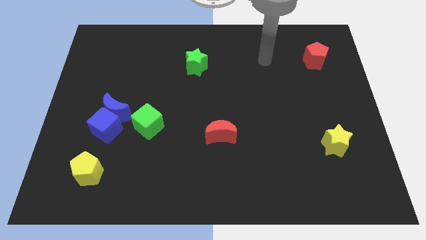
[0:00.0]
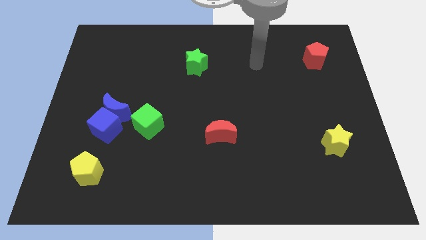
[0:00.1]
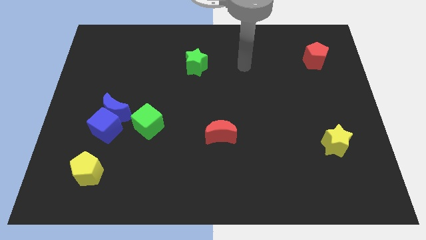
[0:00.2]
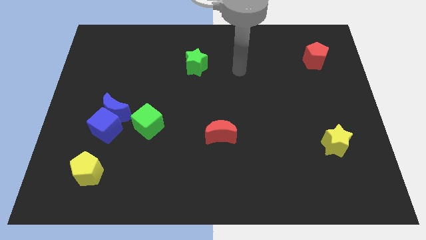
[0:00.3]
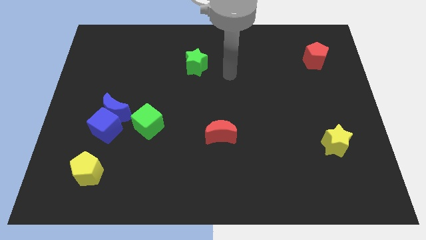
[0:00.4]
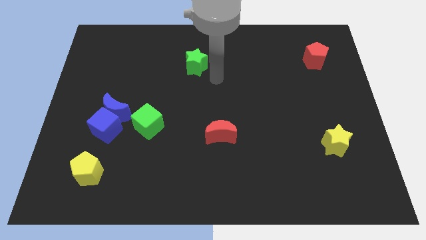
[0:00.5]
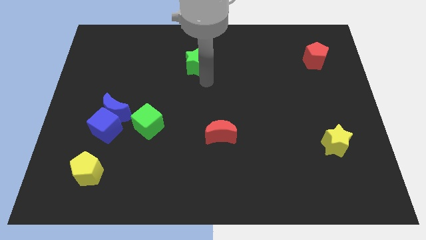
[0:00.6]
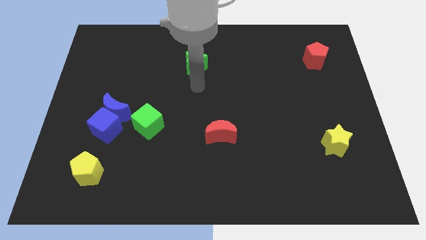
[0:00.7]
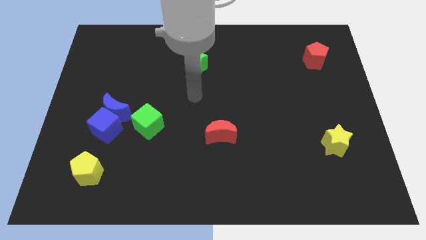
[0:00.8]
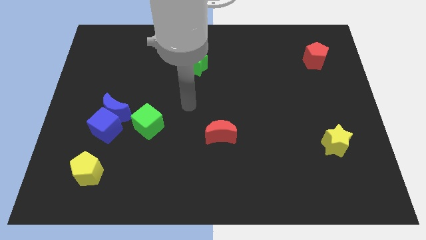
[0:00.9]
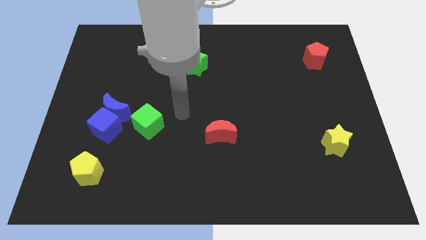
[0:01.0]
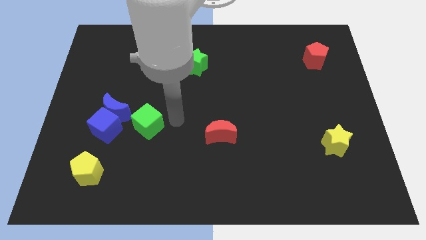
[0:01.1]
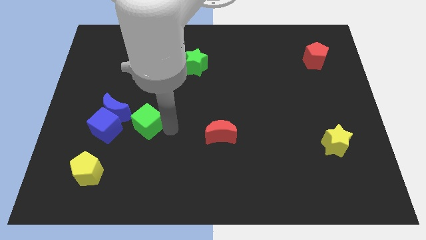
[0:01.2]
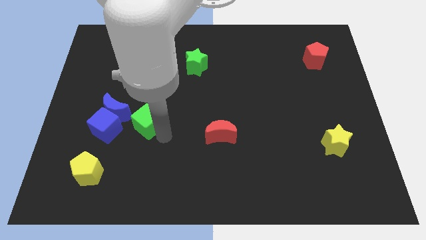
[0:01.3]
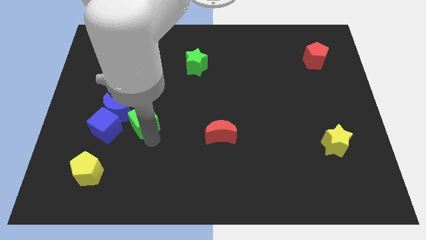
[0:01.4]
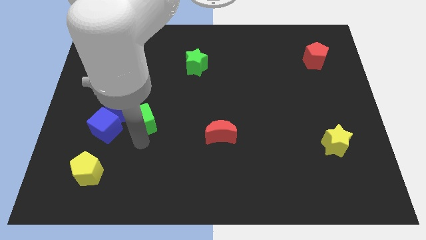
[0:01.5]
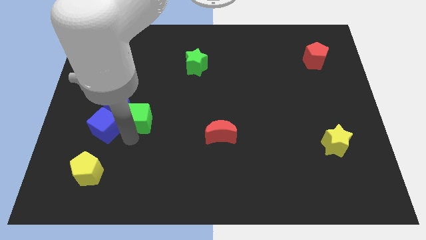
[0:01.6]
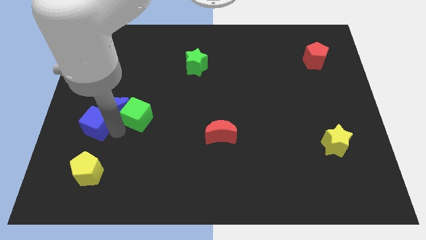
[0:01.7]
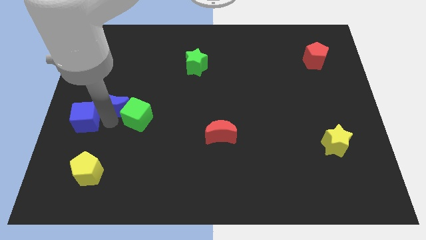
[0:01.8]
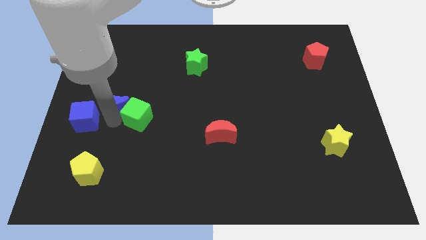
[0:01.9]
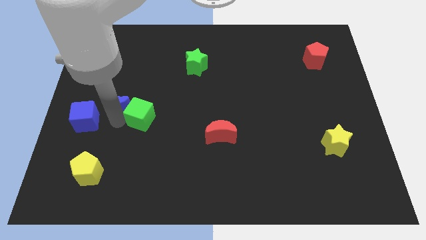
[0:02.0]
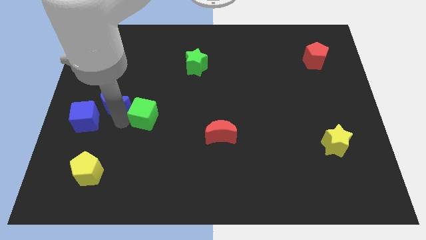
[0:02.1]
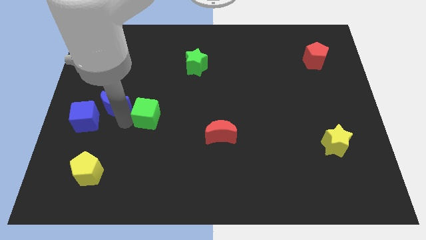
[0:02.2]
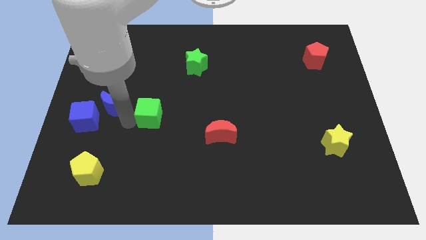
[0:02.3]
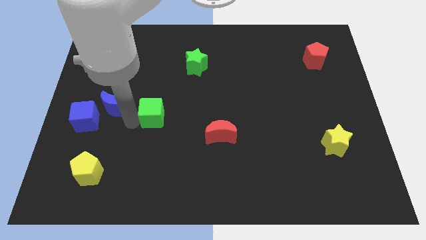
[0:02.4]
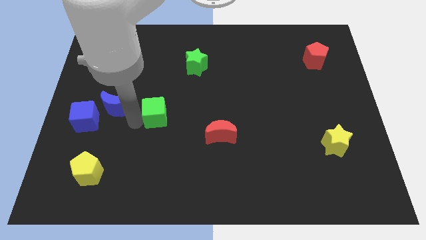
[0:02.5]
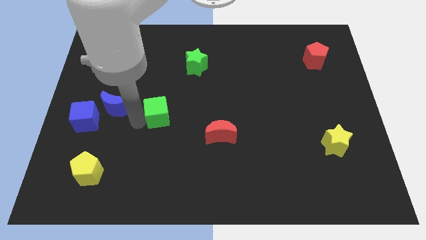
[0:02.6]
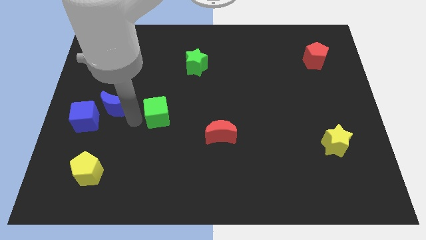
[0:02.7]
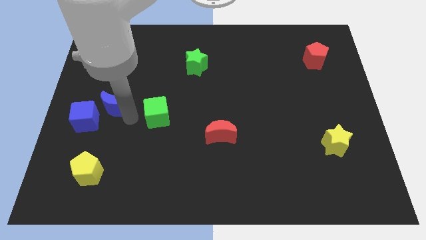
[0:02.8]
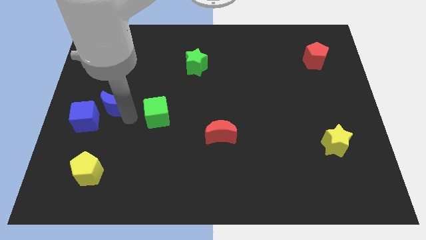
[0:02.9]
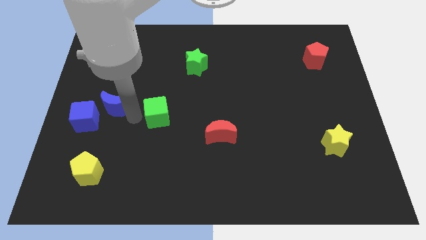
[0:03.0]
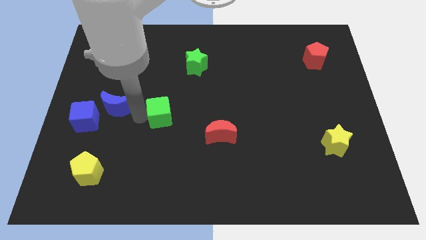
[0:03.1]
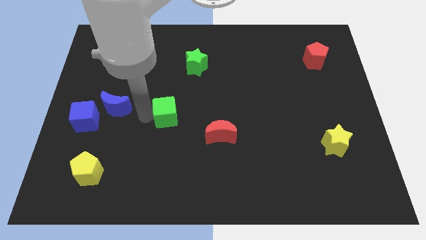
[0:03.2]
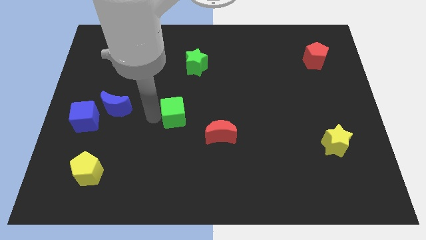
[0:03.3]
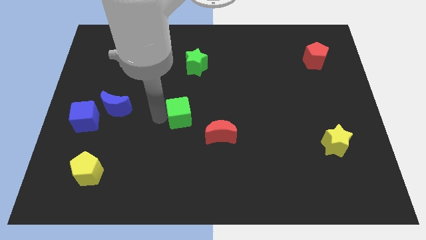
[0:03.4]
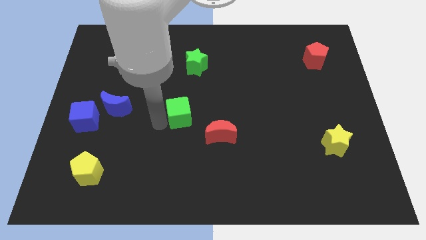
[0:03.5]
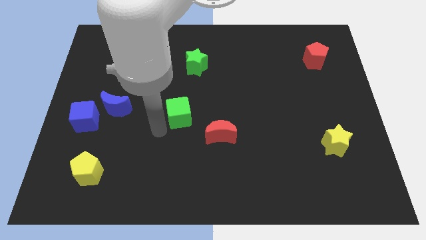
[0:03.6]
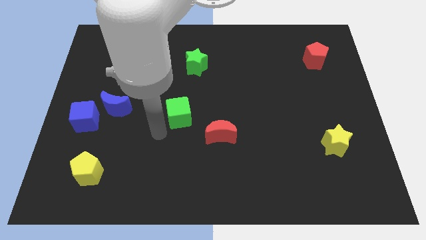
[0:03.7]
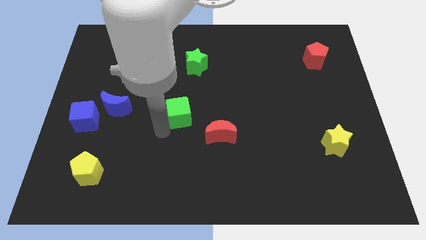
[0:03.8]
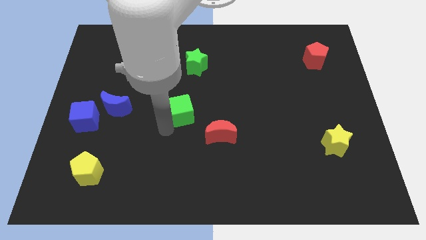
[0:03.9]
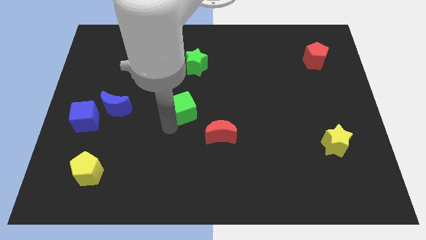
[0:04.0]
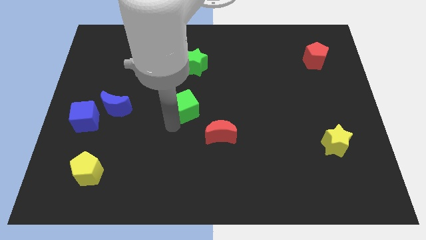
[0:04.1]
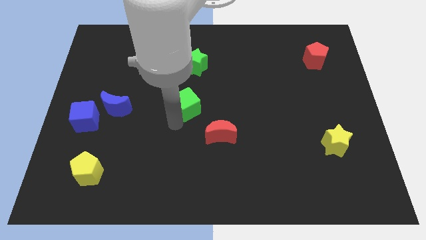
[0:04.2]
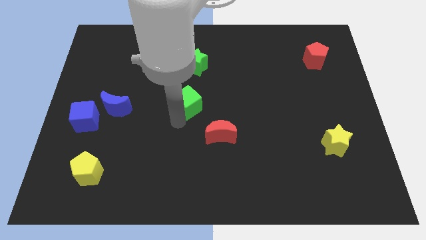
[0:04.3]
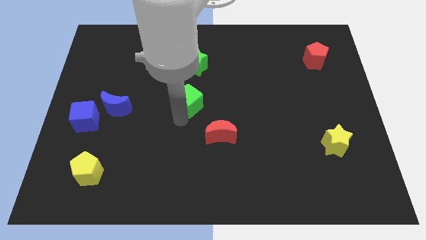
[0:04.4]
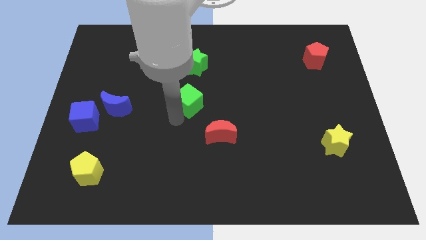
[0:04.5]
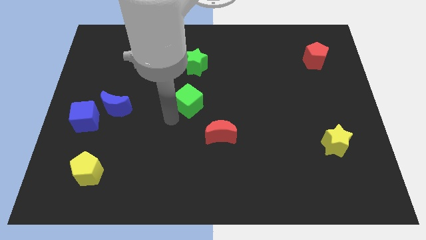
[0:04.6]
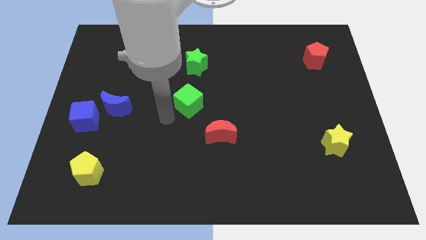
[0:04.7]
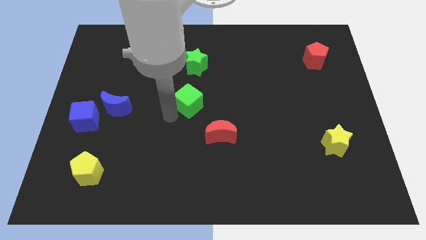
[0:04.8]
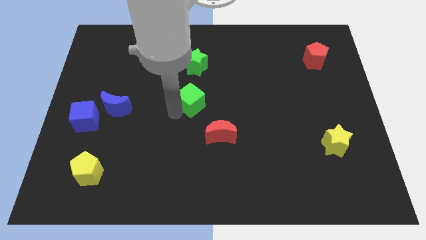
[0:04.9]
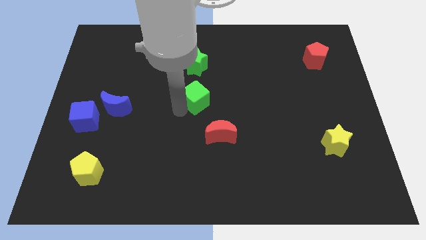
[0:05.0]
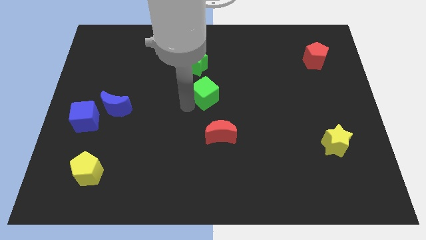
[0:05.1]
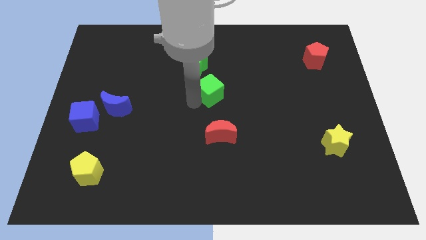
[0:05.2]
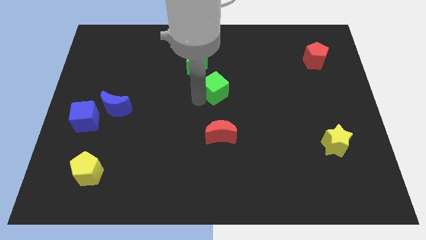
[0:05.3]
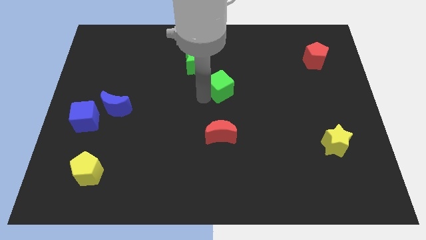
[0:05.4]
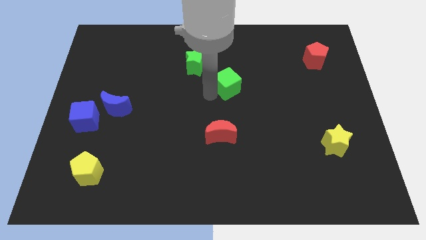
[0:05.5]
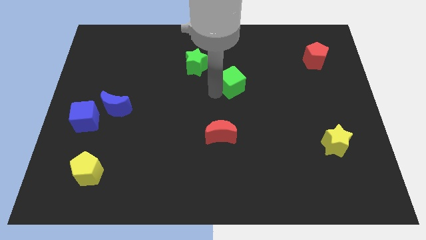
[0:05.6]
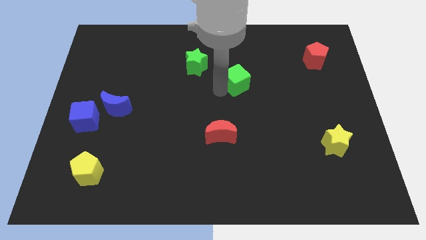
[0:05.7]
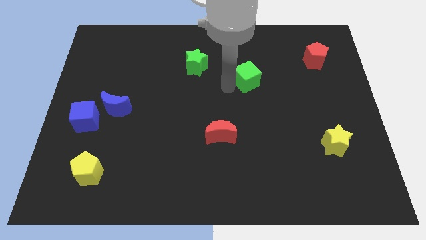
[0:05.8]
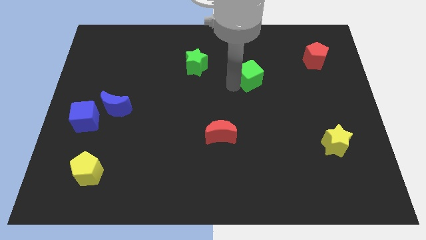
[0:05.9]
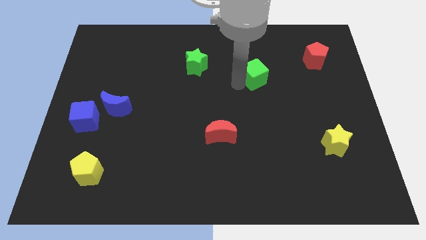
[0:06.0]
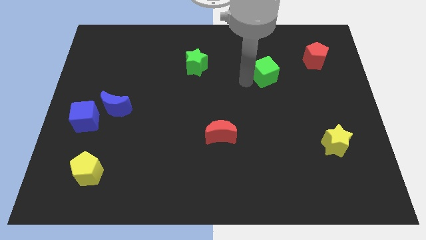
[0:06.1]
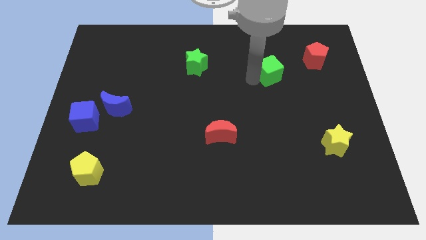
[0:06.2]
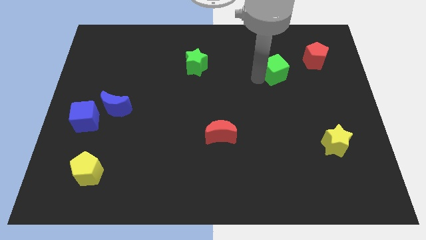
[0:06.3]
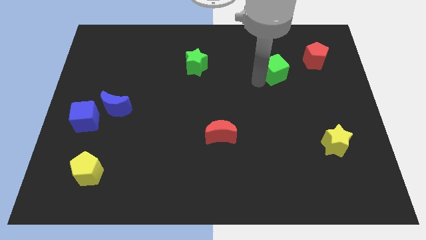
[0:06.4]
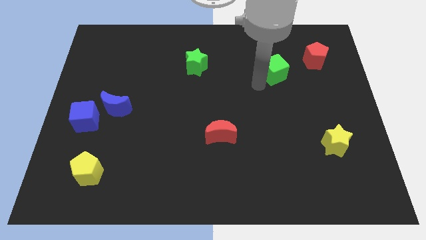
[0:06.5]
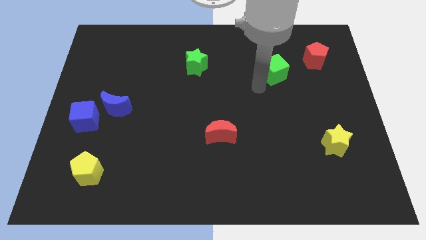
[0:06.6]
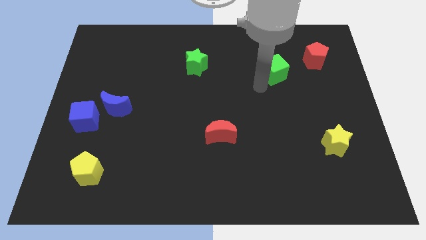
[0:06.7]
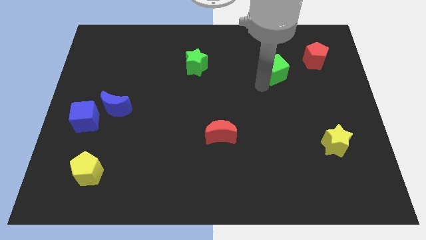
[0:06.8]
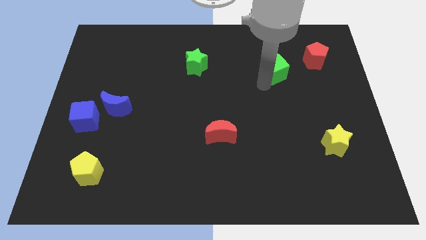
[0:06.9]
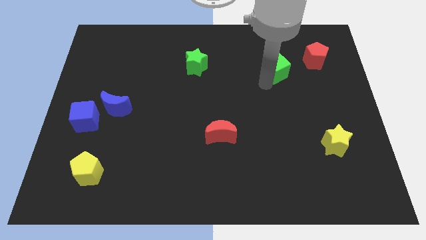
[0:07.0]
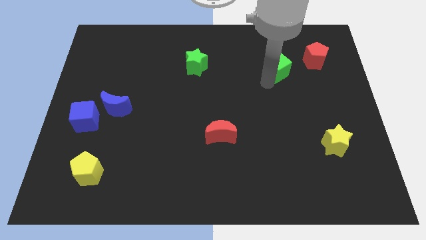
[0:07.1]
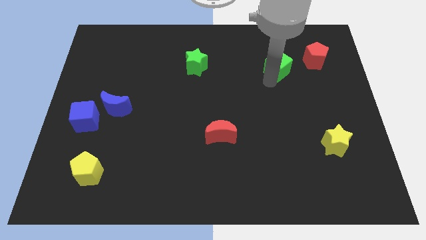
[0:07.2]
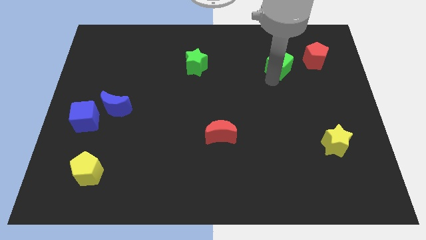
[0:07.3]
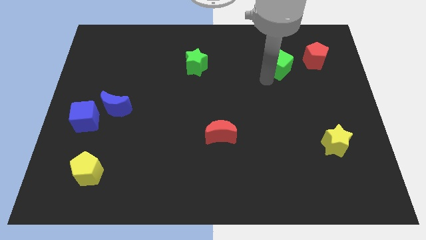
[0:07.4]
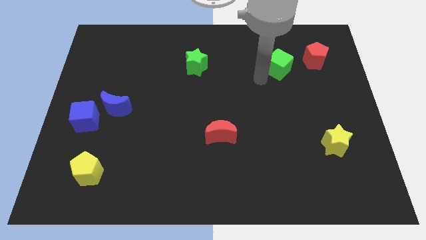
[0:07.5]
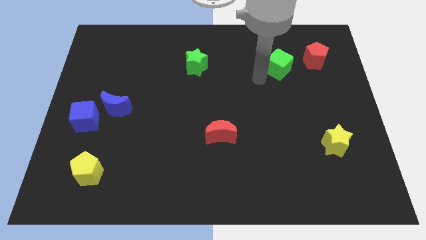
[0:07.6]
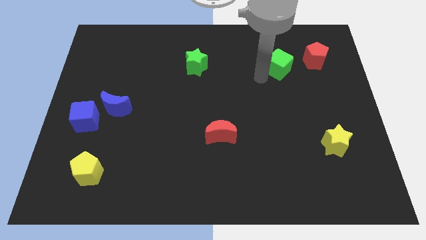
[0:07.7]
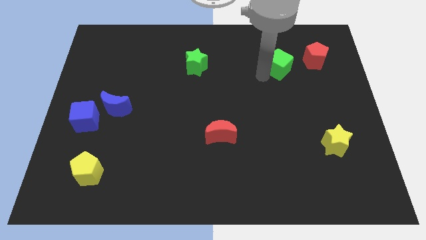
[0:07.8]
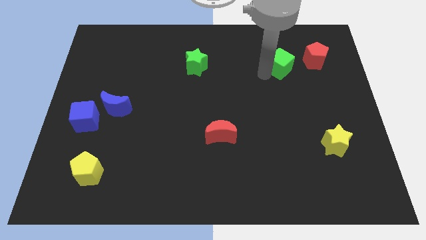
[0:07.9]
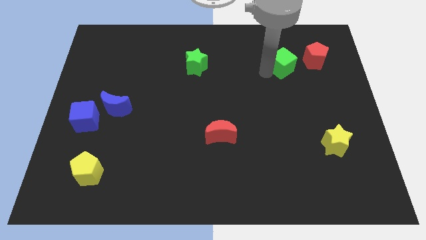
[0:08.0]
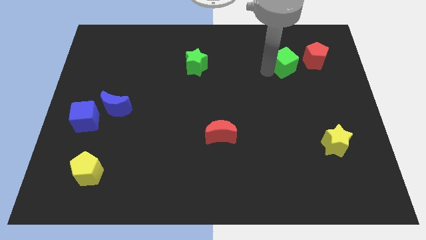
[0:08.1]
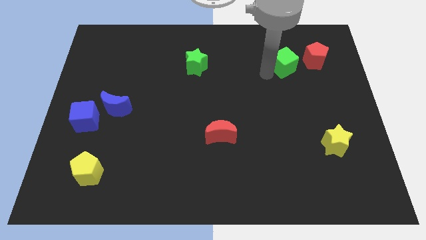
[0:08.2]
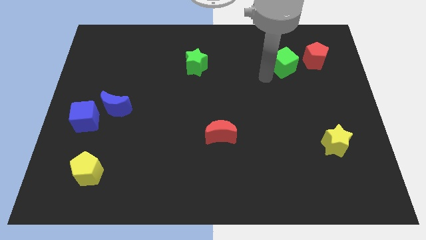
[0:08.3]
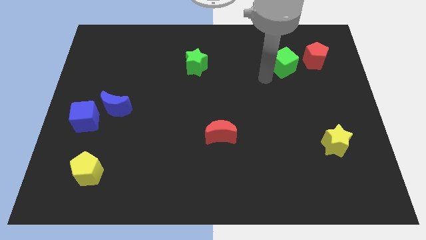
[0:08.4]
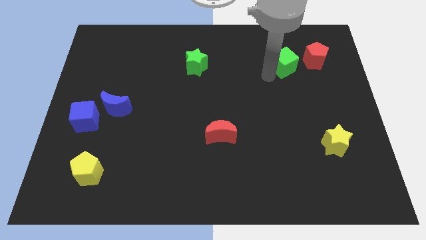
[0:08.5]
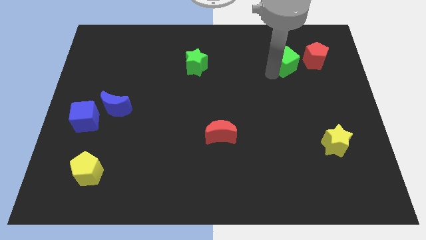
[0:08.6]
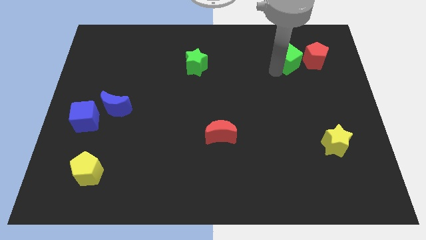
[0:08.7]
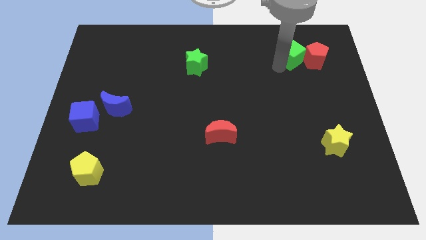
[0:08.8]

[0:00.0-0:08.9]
push the green cube close to the red pentagon
